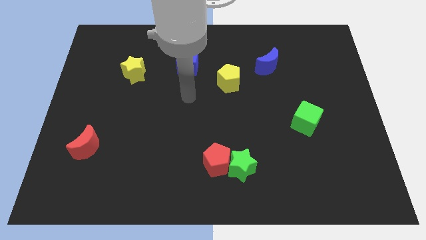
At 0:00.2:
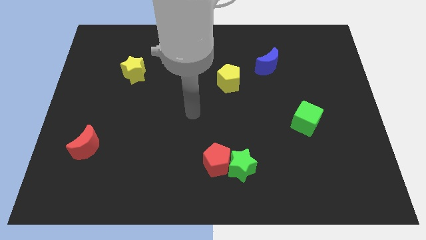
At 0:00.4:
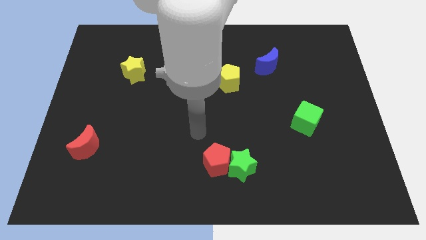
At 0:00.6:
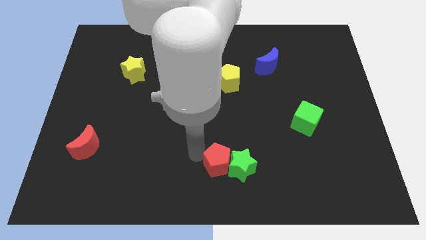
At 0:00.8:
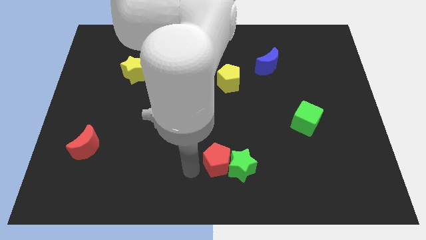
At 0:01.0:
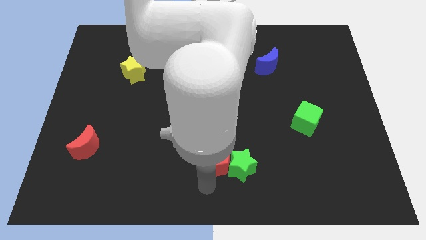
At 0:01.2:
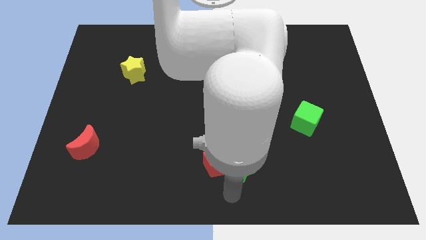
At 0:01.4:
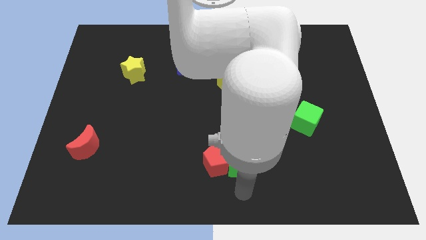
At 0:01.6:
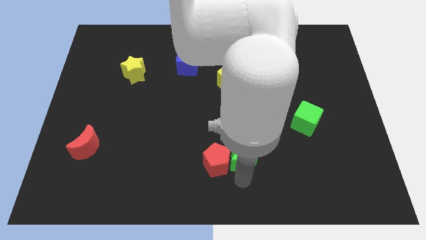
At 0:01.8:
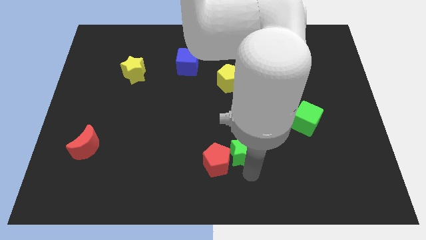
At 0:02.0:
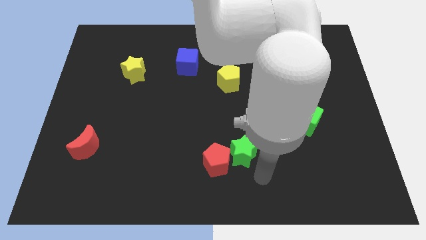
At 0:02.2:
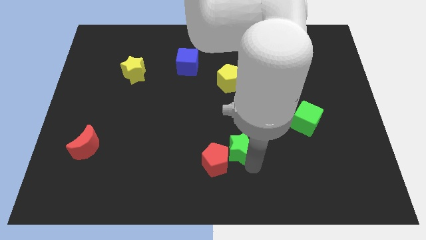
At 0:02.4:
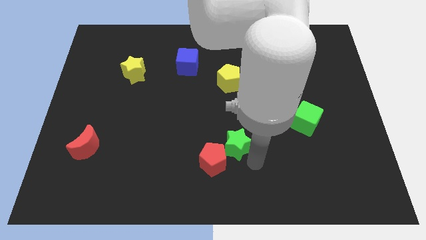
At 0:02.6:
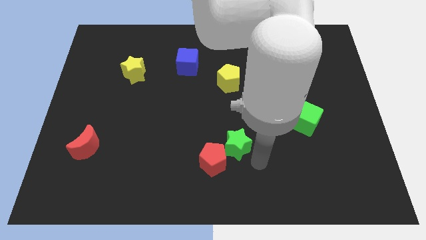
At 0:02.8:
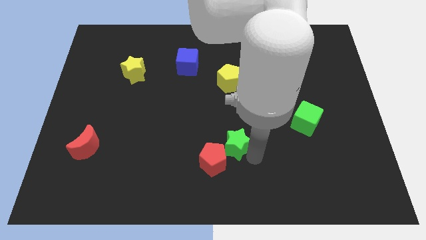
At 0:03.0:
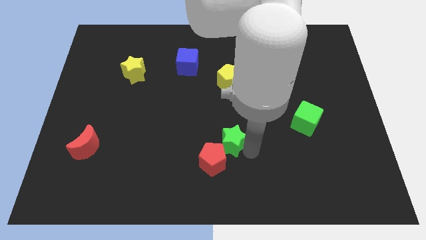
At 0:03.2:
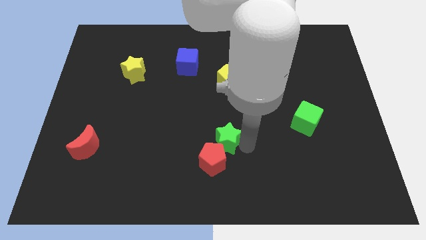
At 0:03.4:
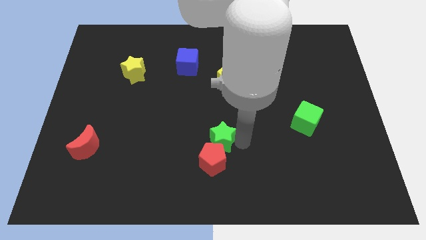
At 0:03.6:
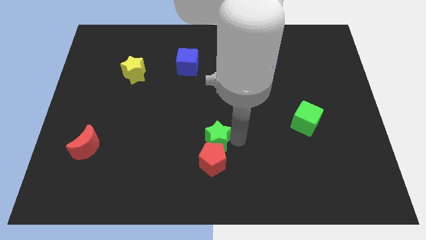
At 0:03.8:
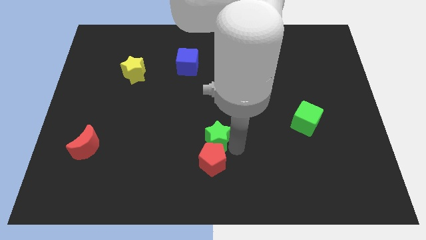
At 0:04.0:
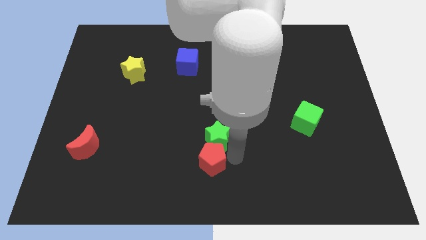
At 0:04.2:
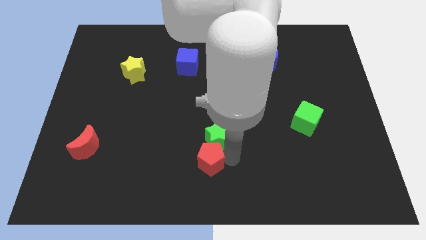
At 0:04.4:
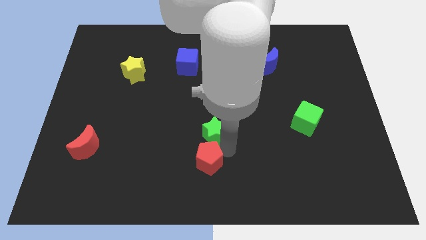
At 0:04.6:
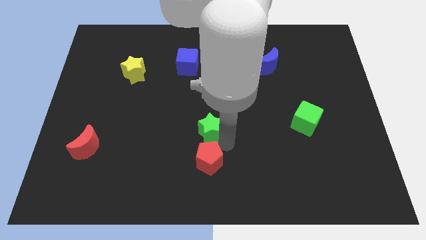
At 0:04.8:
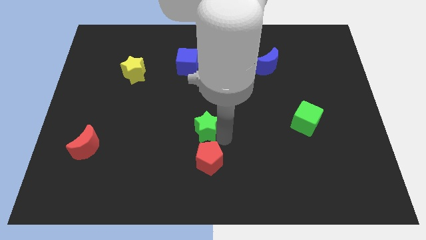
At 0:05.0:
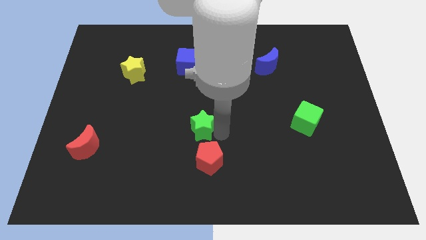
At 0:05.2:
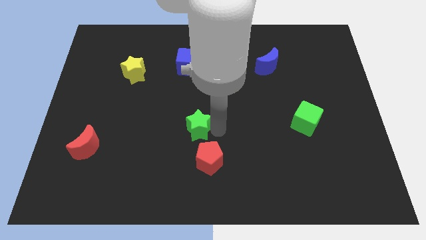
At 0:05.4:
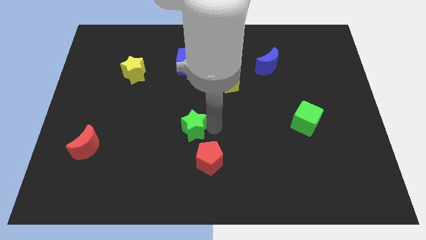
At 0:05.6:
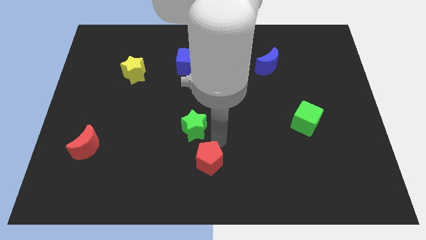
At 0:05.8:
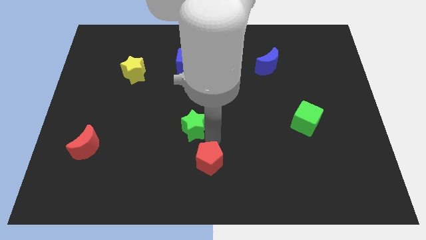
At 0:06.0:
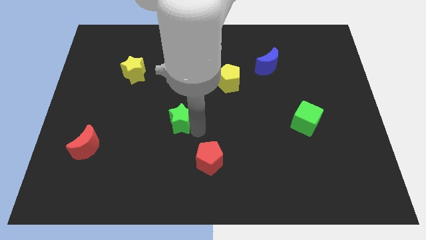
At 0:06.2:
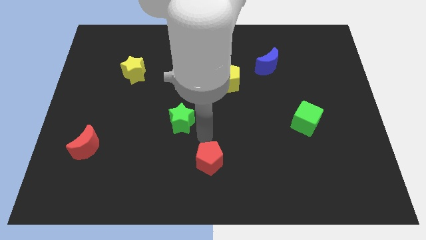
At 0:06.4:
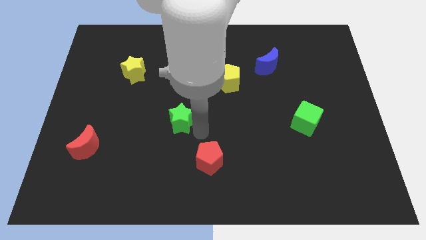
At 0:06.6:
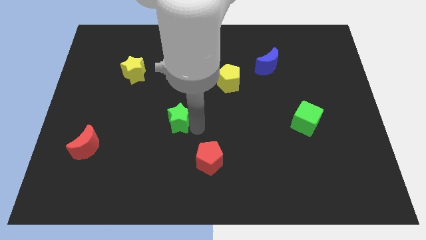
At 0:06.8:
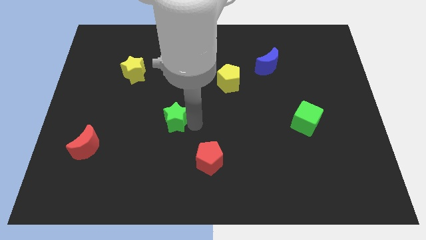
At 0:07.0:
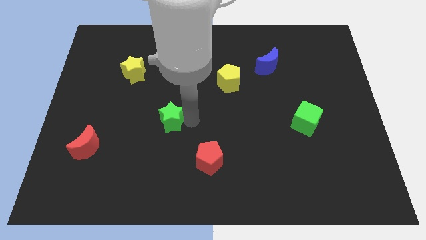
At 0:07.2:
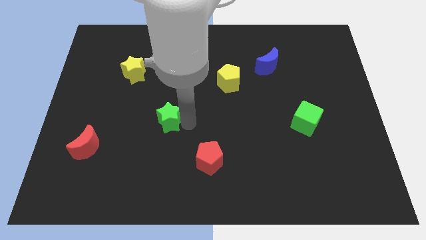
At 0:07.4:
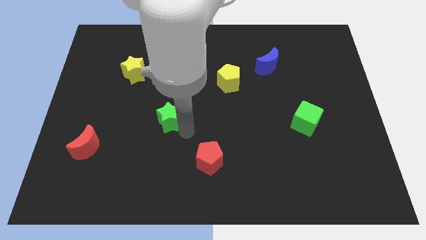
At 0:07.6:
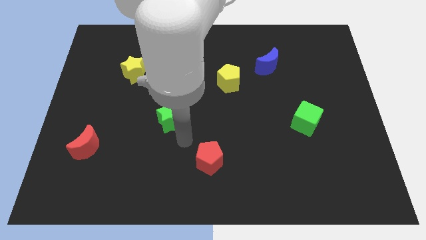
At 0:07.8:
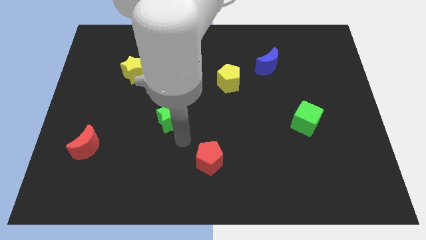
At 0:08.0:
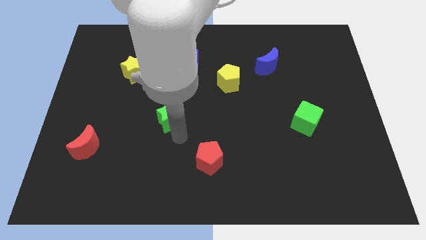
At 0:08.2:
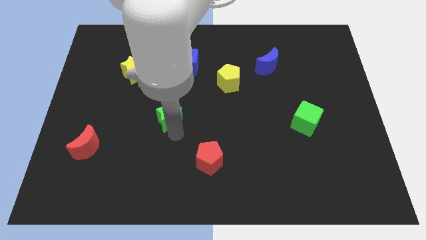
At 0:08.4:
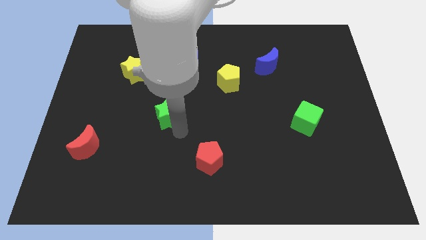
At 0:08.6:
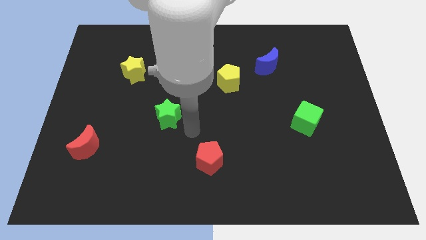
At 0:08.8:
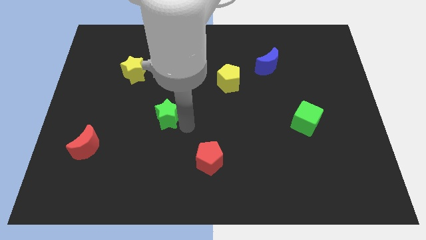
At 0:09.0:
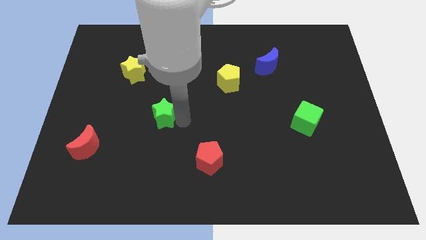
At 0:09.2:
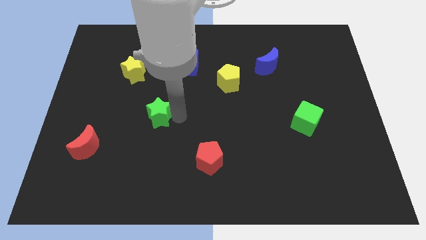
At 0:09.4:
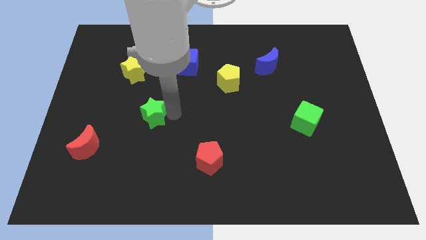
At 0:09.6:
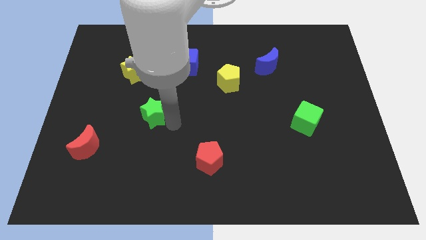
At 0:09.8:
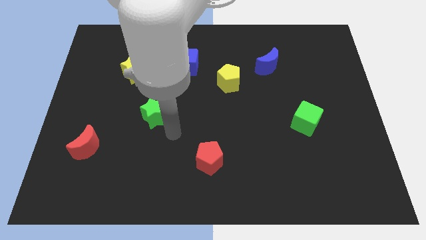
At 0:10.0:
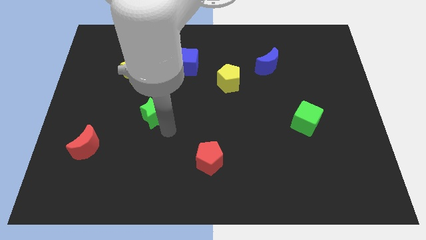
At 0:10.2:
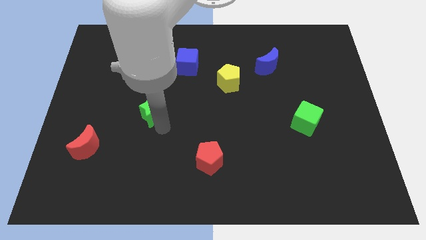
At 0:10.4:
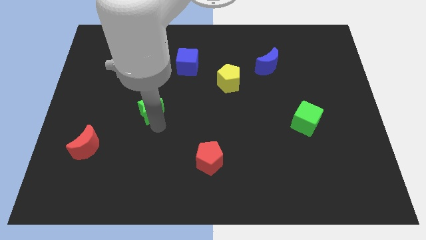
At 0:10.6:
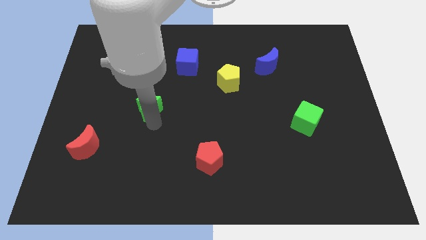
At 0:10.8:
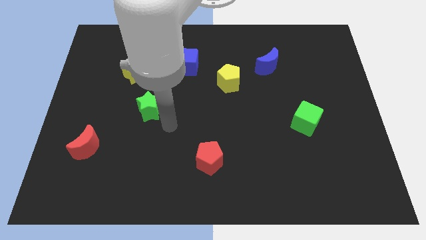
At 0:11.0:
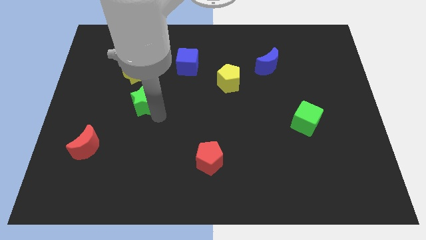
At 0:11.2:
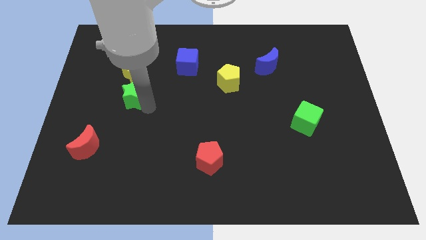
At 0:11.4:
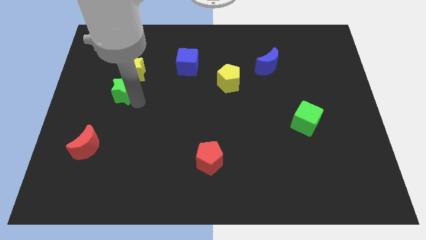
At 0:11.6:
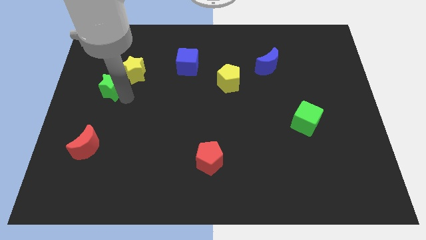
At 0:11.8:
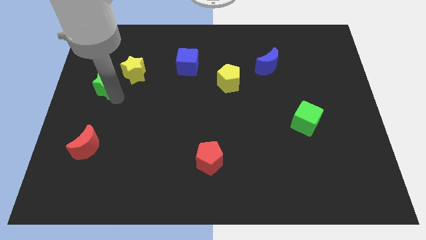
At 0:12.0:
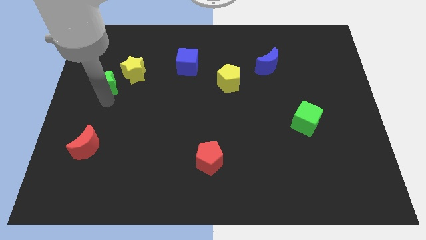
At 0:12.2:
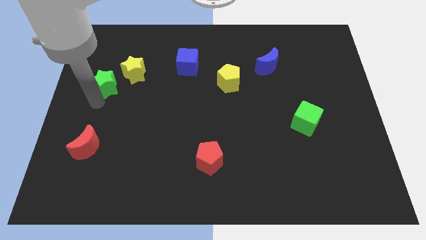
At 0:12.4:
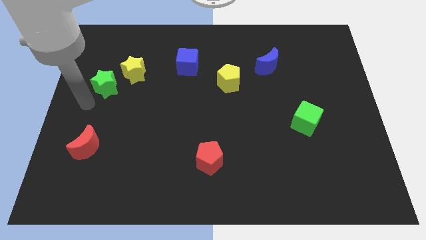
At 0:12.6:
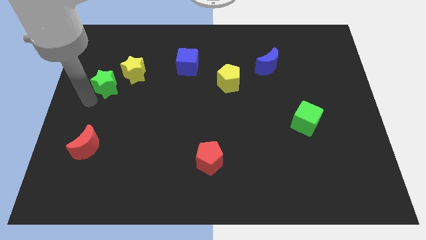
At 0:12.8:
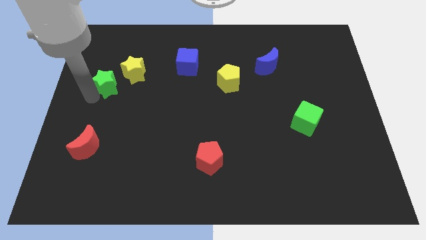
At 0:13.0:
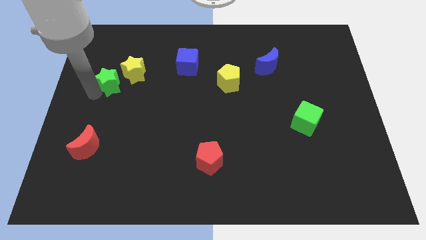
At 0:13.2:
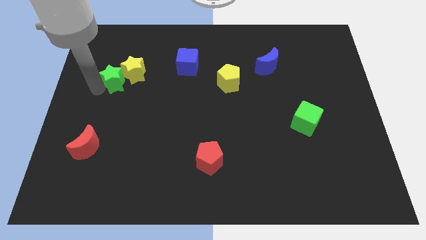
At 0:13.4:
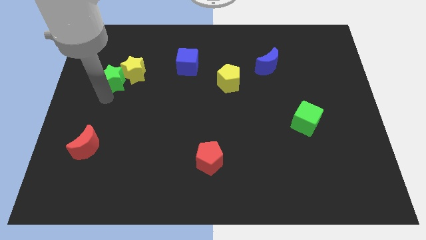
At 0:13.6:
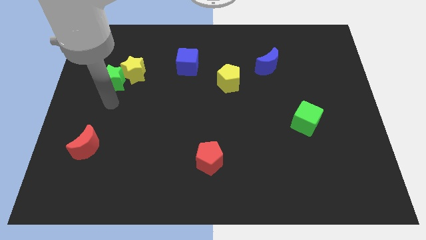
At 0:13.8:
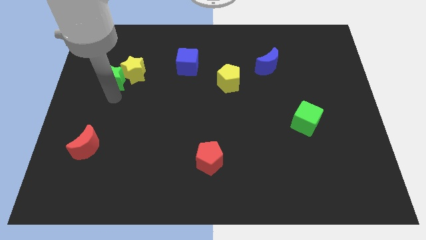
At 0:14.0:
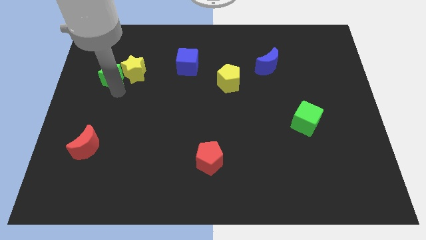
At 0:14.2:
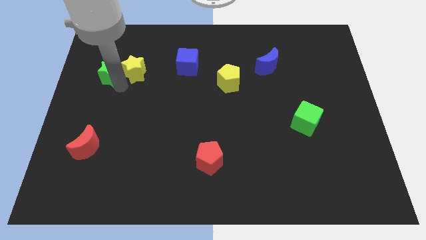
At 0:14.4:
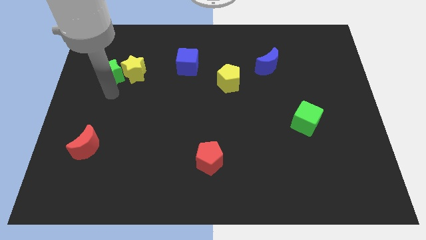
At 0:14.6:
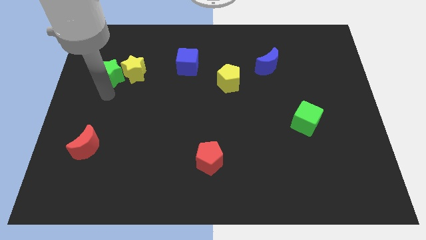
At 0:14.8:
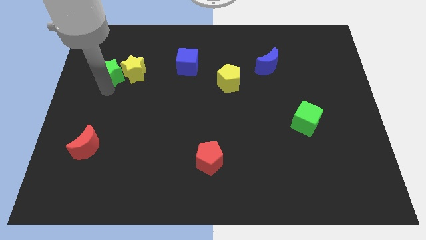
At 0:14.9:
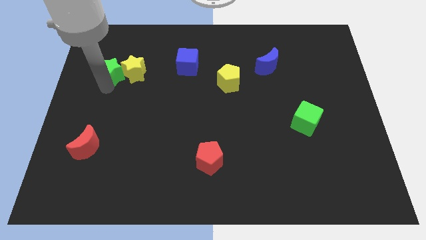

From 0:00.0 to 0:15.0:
put the green star to the top left side of the yellow star
